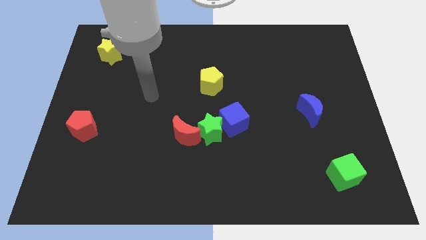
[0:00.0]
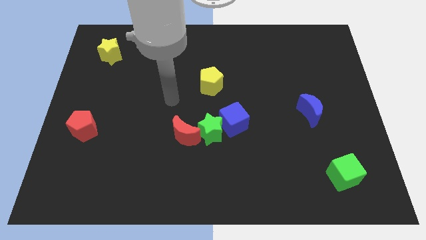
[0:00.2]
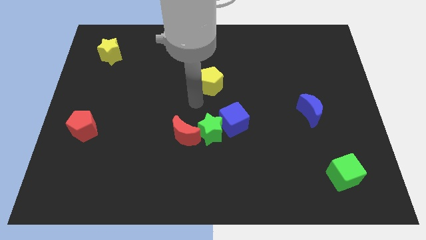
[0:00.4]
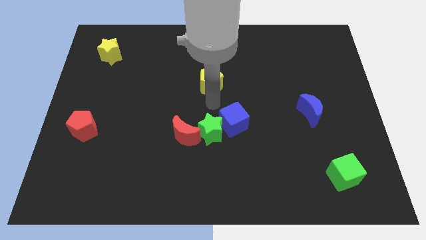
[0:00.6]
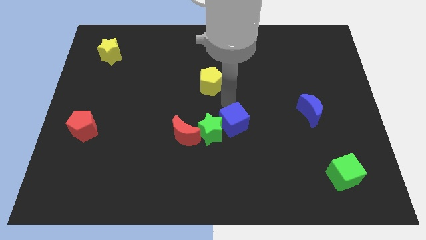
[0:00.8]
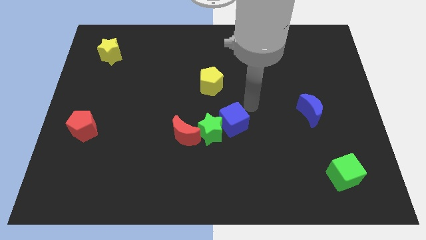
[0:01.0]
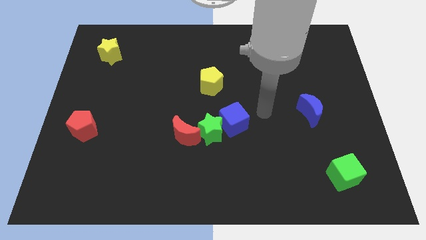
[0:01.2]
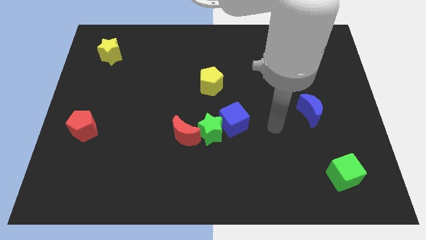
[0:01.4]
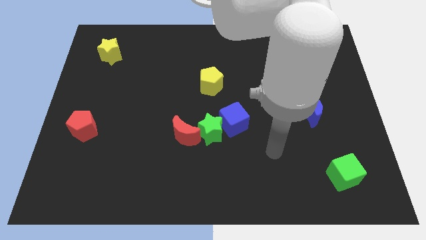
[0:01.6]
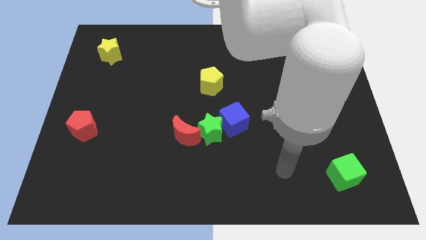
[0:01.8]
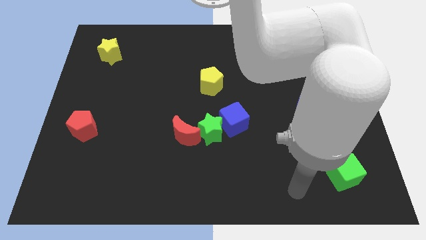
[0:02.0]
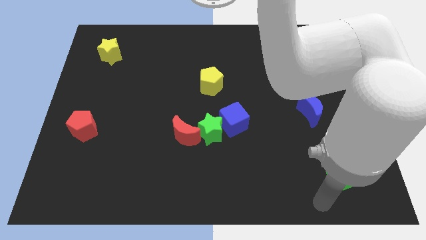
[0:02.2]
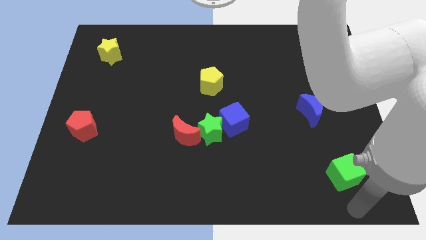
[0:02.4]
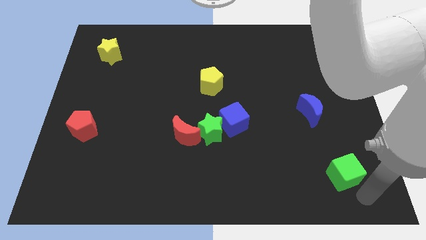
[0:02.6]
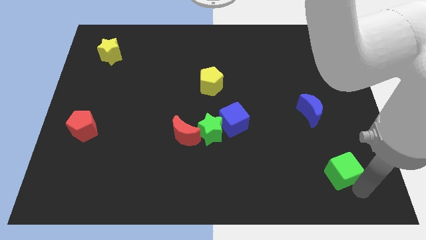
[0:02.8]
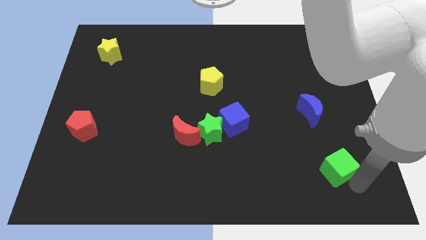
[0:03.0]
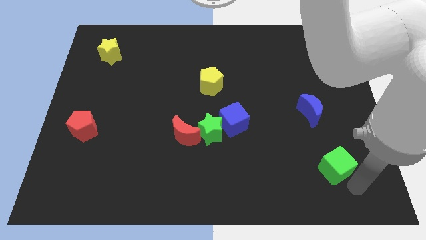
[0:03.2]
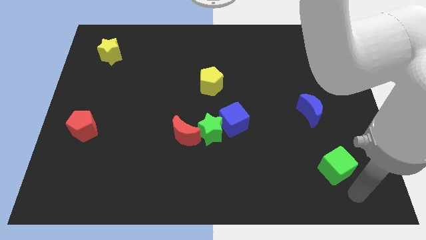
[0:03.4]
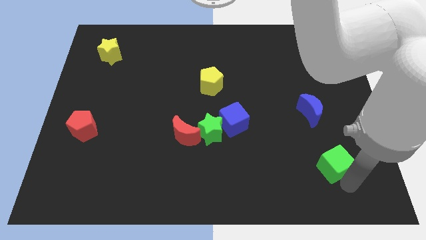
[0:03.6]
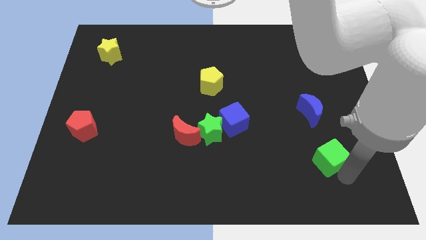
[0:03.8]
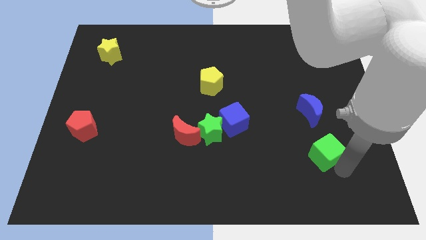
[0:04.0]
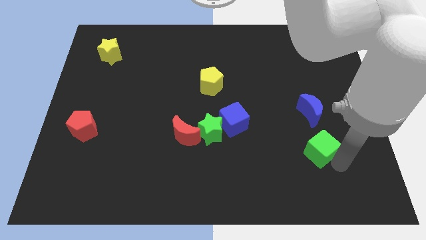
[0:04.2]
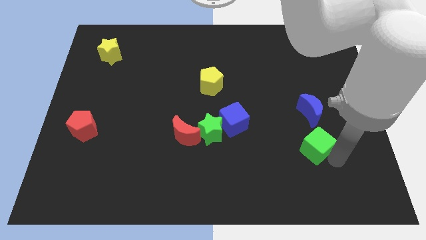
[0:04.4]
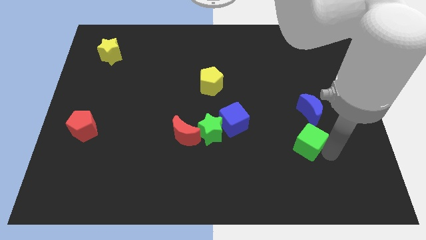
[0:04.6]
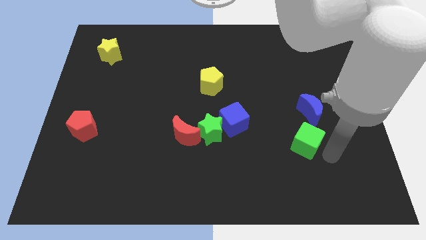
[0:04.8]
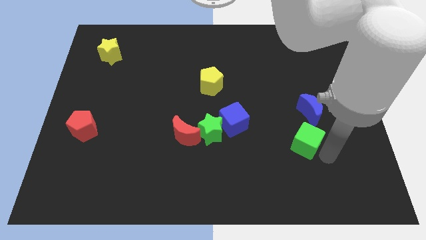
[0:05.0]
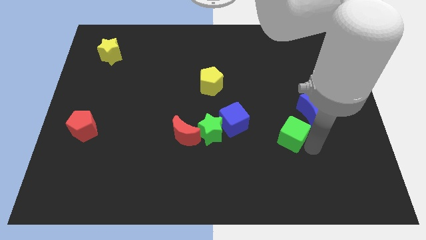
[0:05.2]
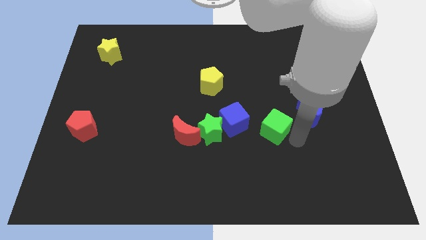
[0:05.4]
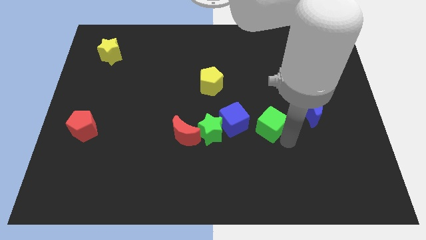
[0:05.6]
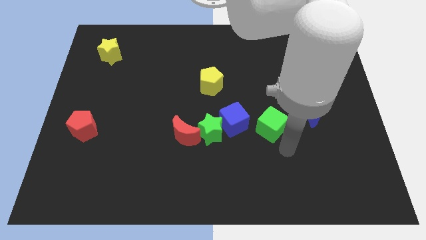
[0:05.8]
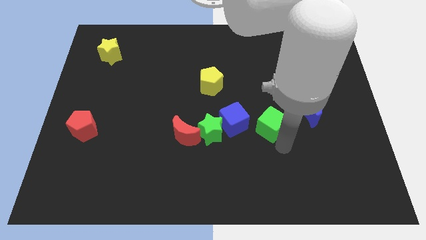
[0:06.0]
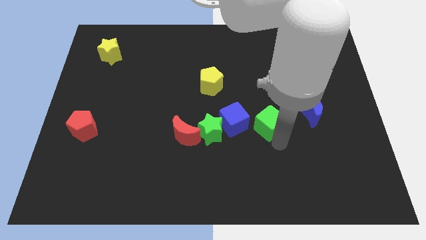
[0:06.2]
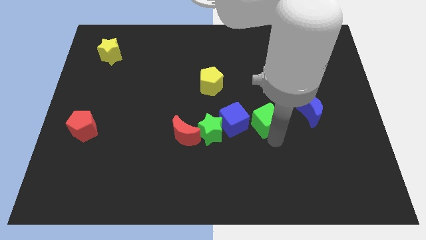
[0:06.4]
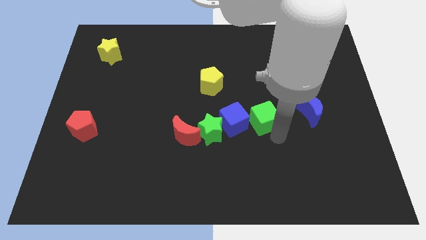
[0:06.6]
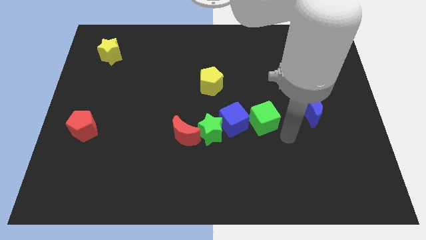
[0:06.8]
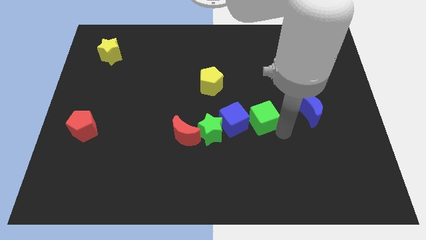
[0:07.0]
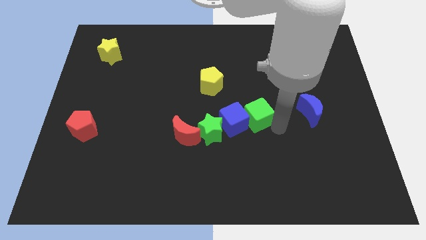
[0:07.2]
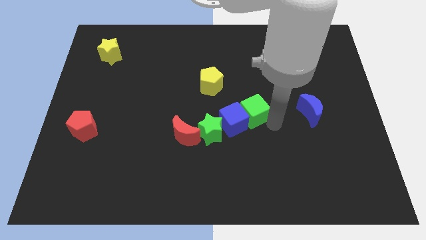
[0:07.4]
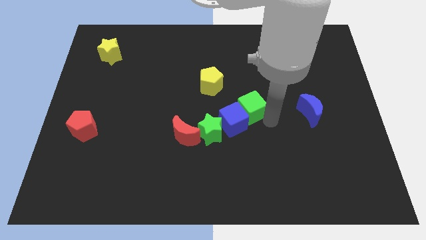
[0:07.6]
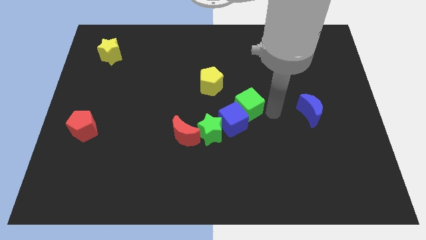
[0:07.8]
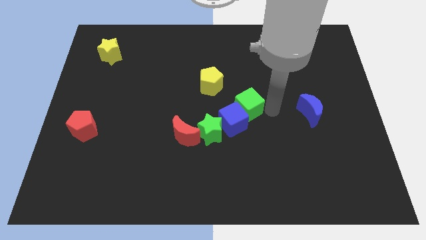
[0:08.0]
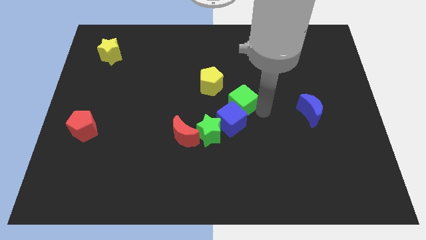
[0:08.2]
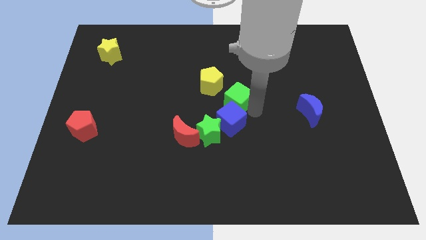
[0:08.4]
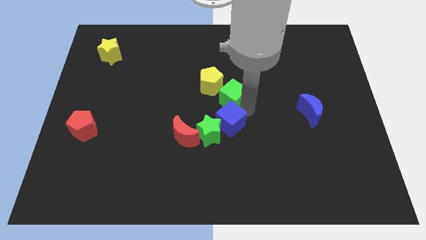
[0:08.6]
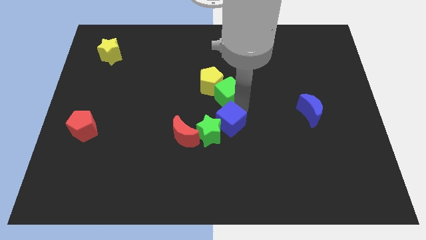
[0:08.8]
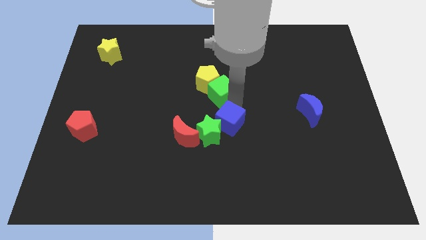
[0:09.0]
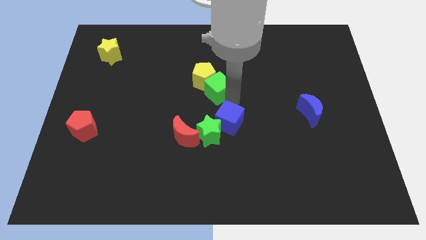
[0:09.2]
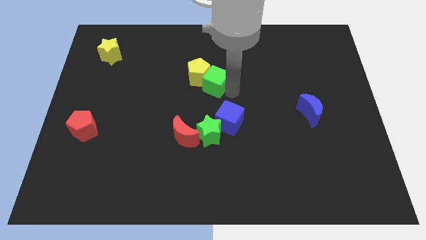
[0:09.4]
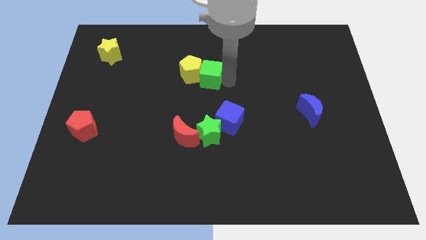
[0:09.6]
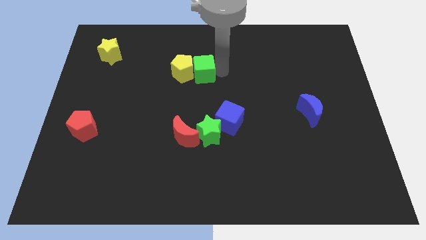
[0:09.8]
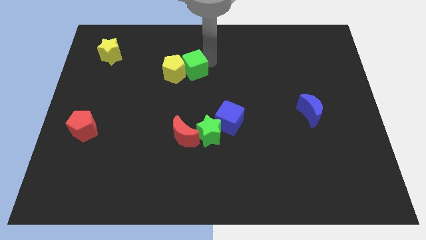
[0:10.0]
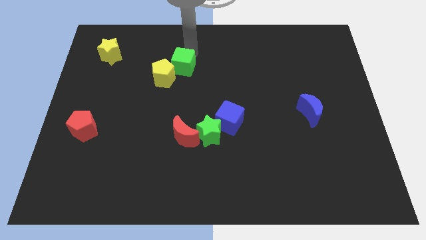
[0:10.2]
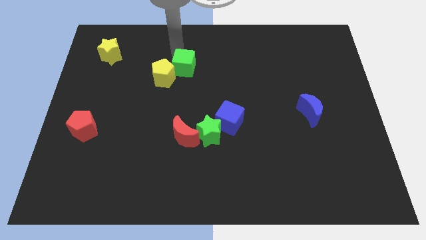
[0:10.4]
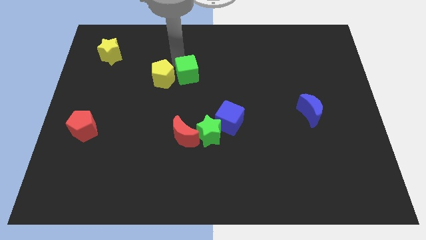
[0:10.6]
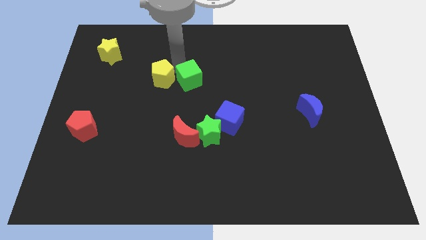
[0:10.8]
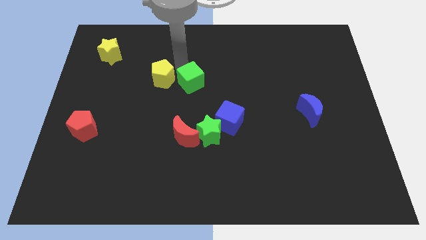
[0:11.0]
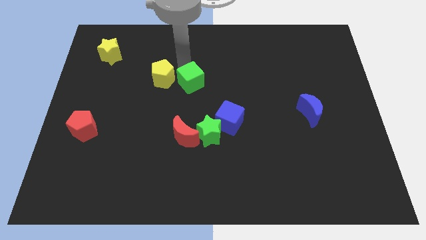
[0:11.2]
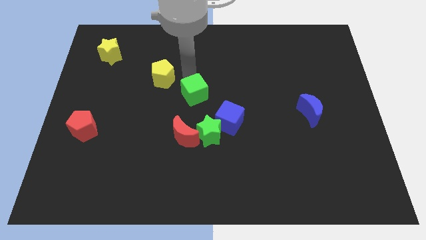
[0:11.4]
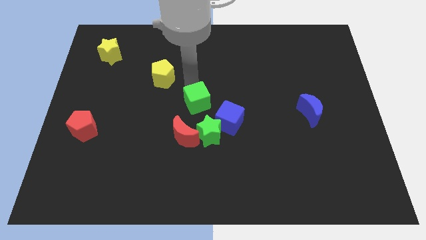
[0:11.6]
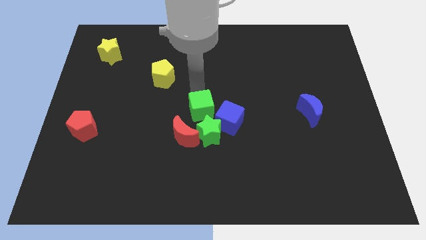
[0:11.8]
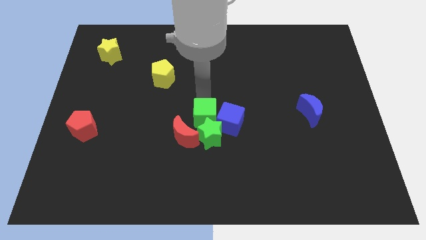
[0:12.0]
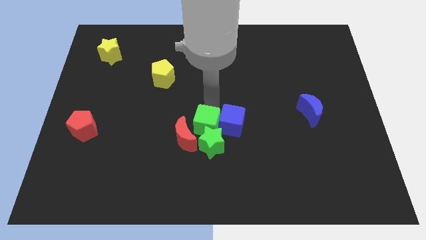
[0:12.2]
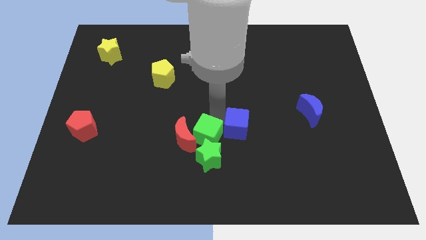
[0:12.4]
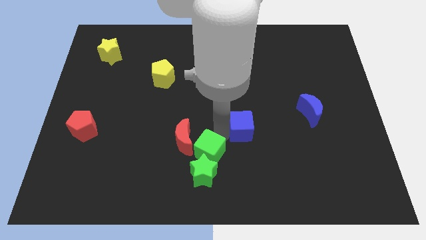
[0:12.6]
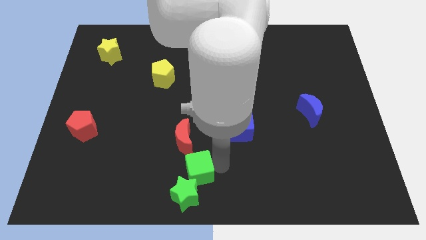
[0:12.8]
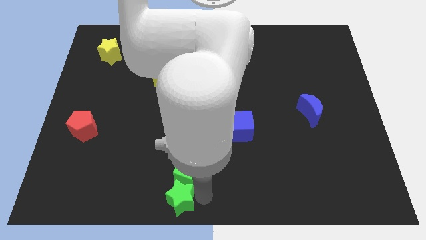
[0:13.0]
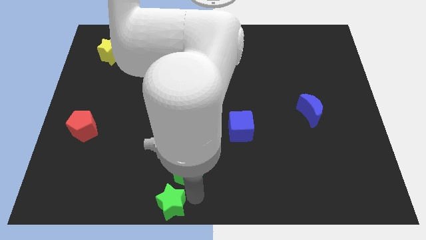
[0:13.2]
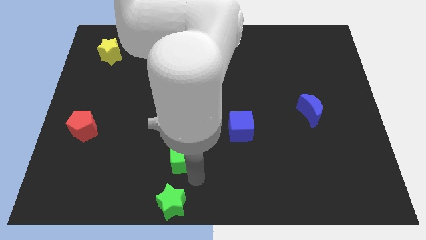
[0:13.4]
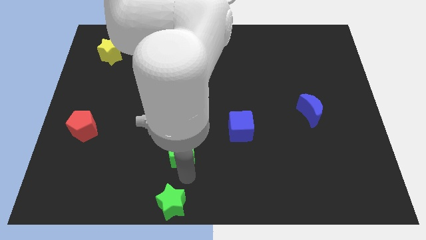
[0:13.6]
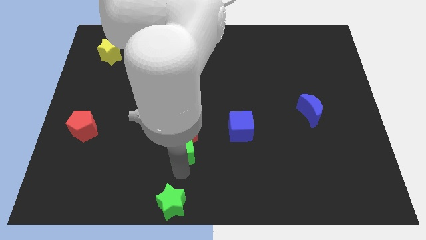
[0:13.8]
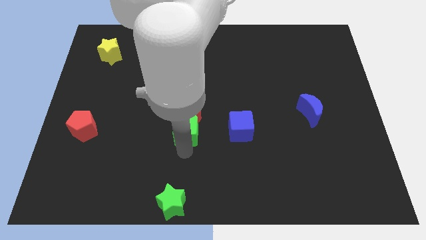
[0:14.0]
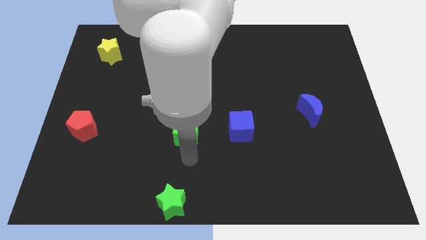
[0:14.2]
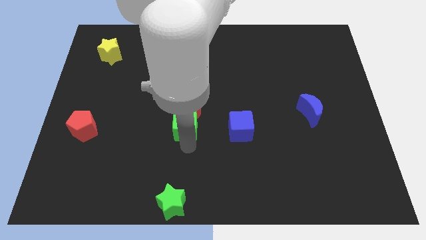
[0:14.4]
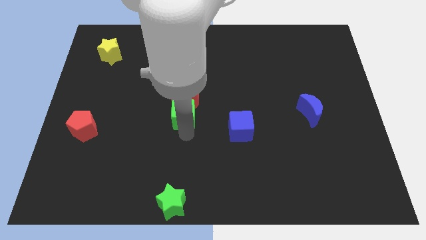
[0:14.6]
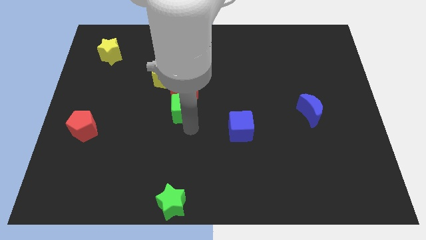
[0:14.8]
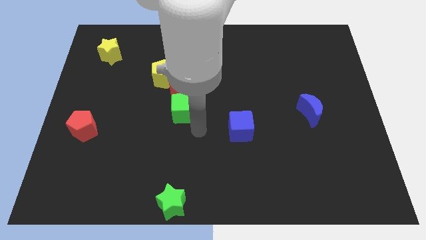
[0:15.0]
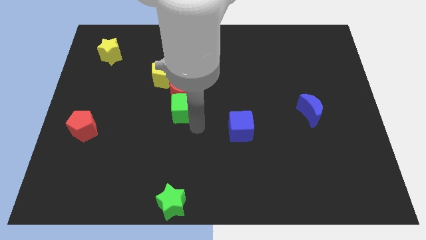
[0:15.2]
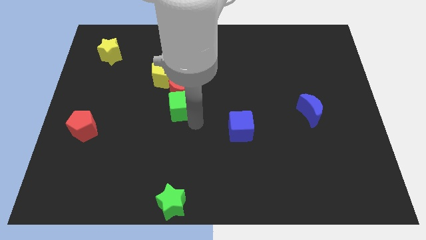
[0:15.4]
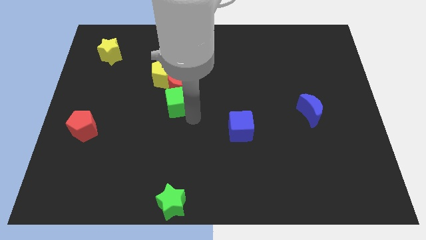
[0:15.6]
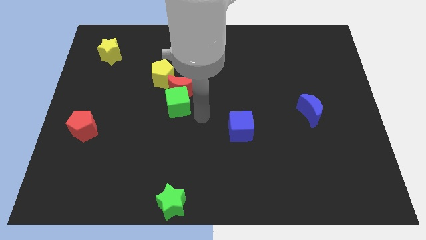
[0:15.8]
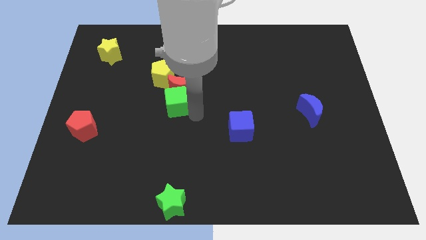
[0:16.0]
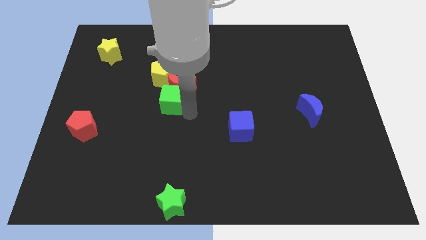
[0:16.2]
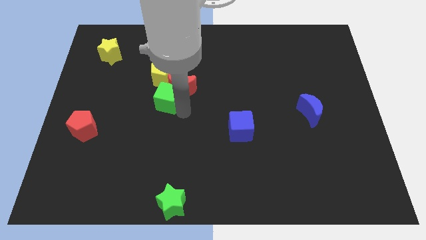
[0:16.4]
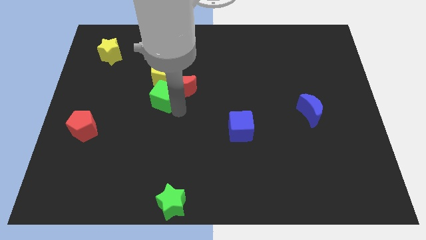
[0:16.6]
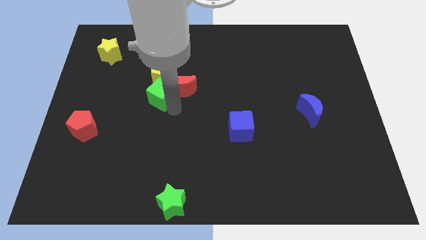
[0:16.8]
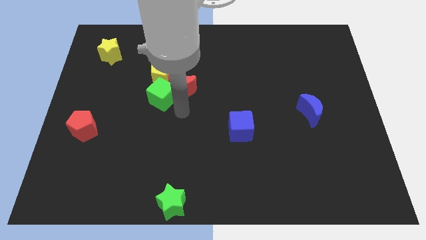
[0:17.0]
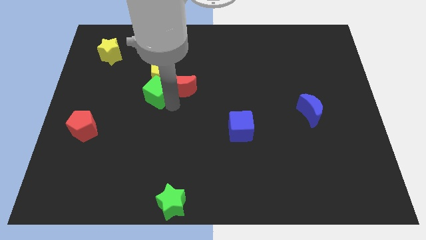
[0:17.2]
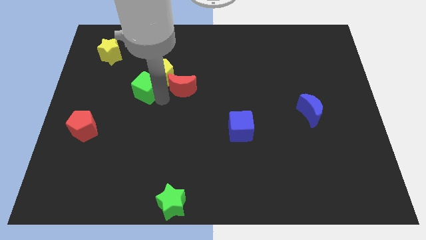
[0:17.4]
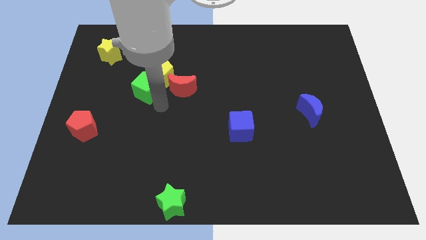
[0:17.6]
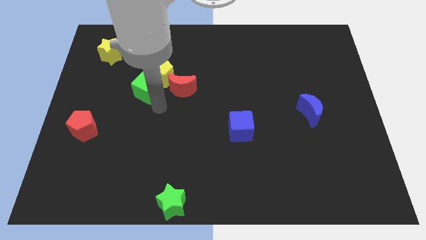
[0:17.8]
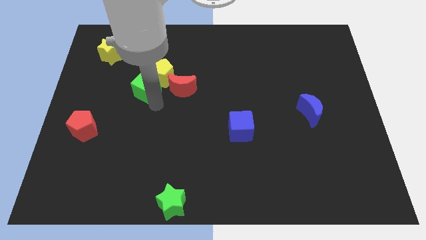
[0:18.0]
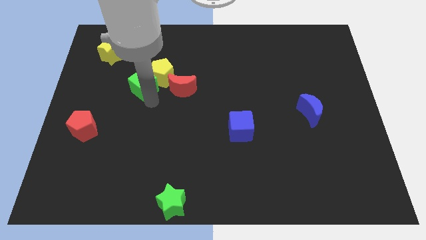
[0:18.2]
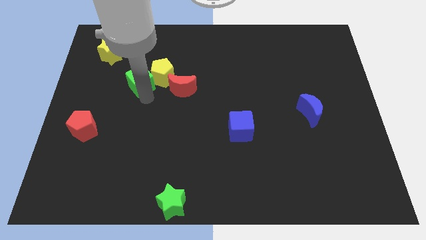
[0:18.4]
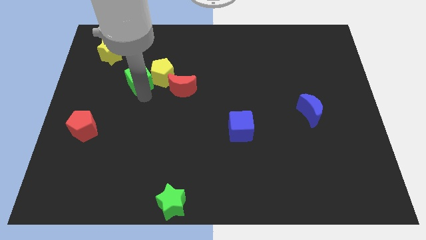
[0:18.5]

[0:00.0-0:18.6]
slide the green cube diagonally down and to the right of the yellow star
